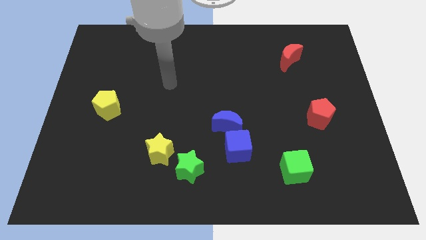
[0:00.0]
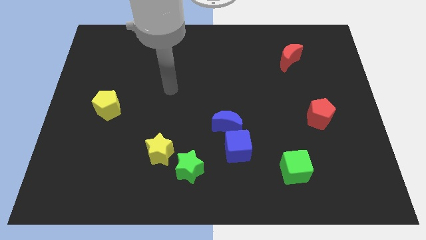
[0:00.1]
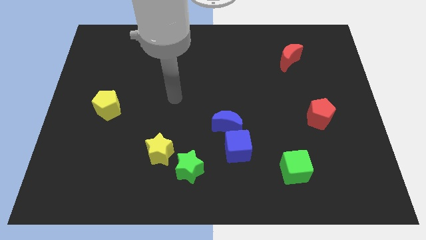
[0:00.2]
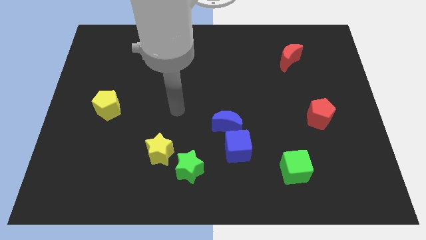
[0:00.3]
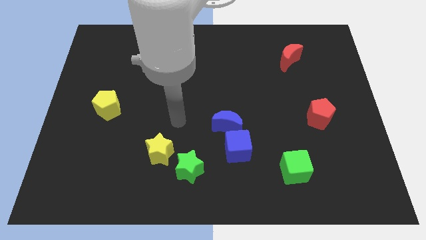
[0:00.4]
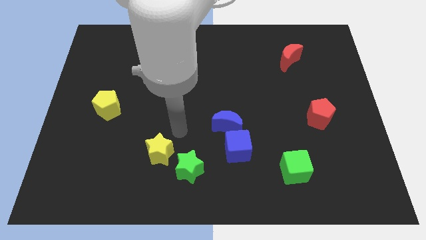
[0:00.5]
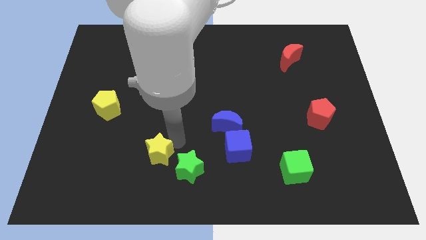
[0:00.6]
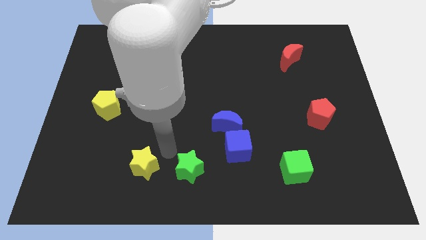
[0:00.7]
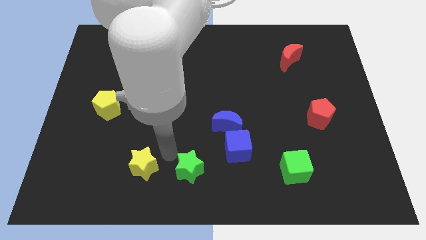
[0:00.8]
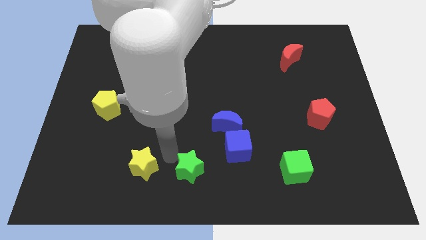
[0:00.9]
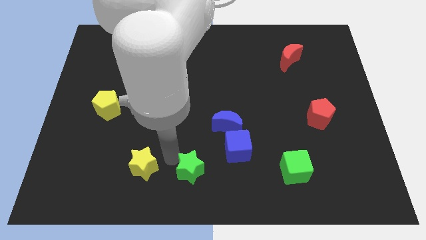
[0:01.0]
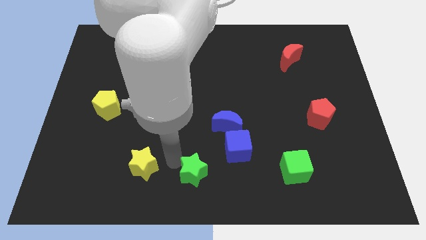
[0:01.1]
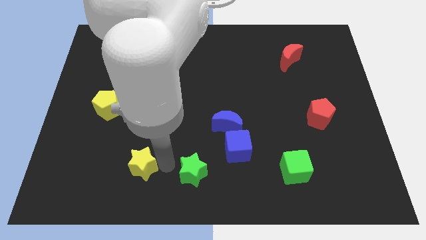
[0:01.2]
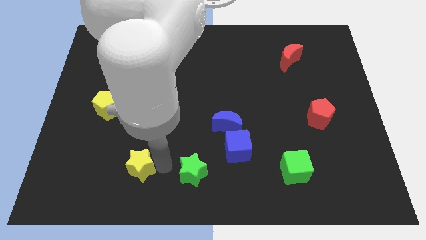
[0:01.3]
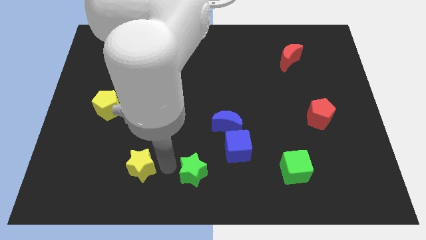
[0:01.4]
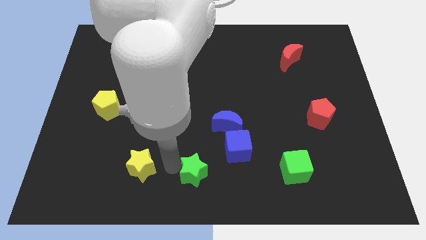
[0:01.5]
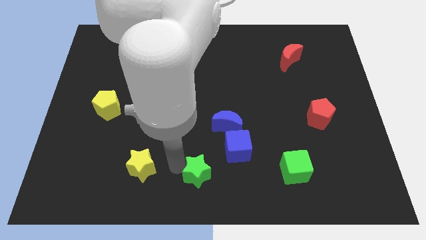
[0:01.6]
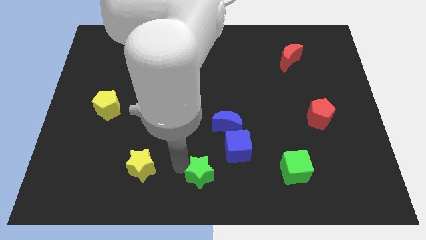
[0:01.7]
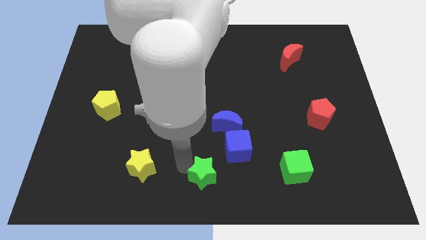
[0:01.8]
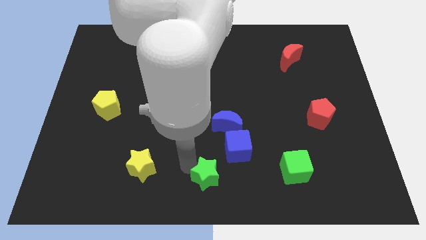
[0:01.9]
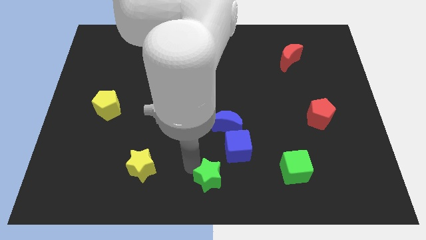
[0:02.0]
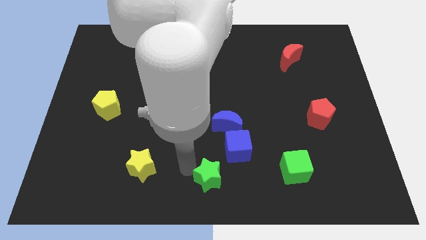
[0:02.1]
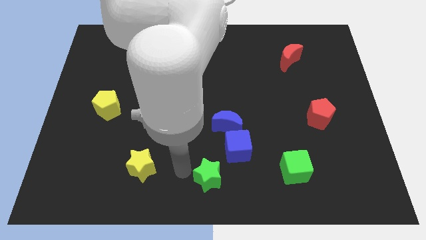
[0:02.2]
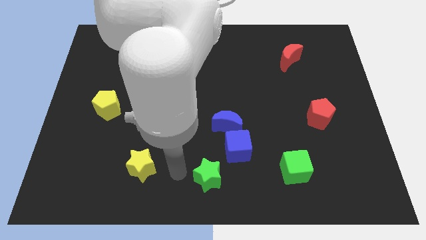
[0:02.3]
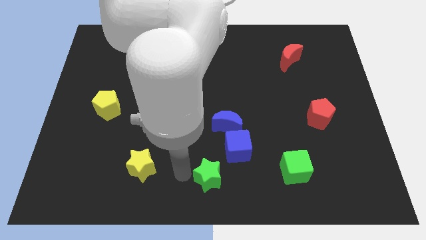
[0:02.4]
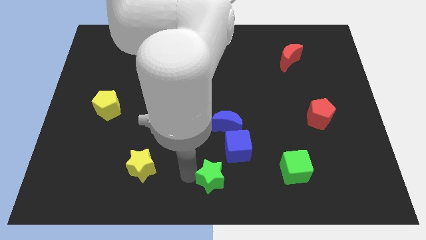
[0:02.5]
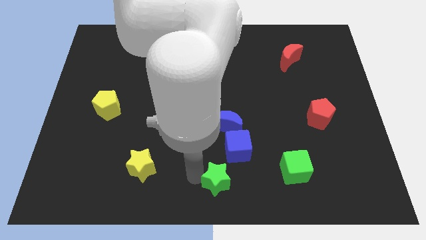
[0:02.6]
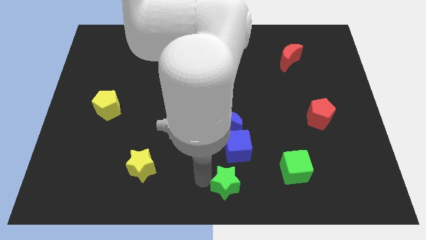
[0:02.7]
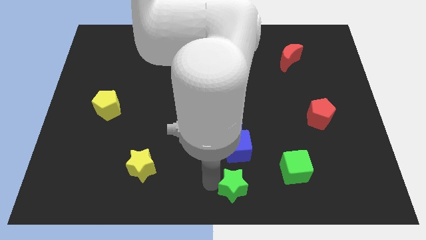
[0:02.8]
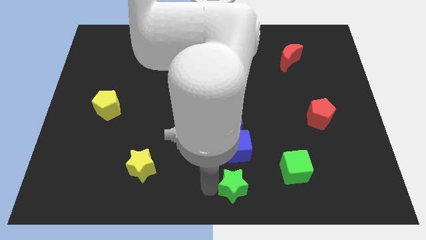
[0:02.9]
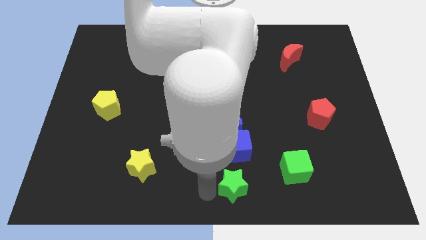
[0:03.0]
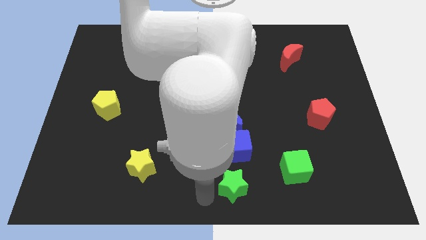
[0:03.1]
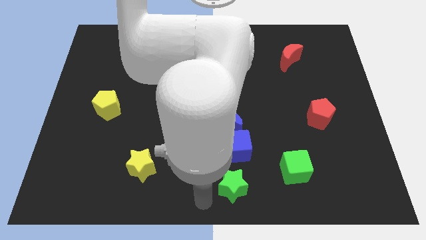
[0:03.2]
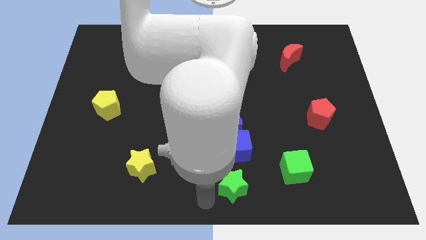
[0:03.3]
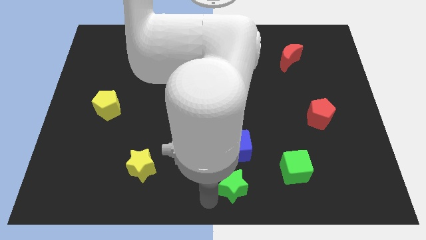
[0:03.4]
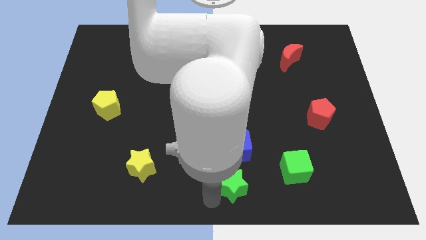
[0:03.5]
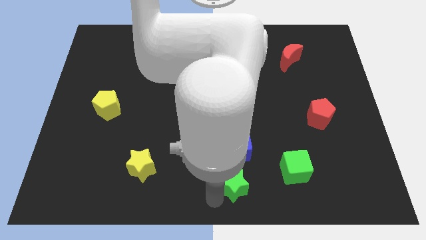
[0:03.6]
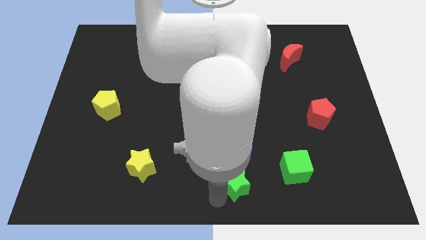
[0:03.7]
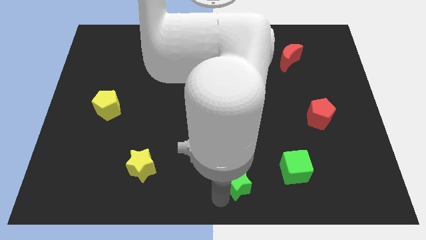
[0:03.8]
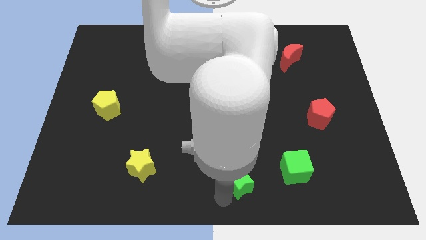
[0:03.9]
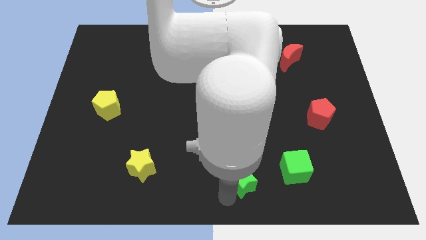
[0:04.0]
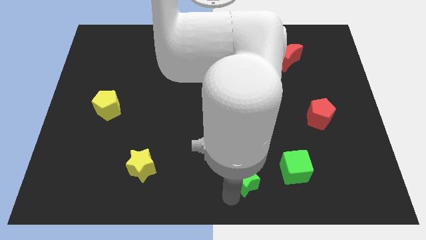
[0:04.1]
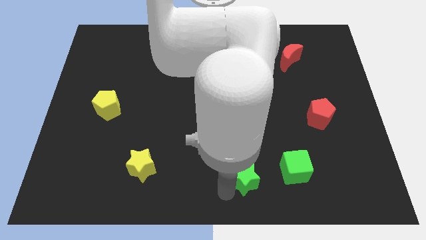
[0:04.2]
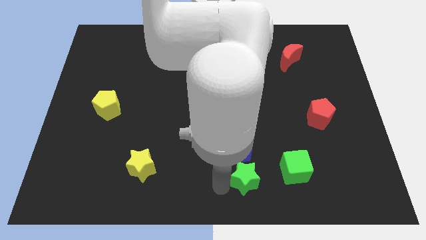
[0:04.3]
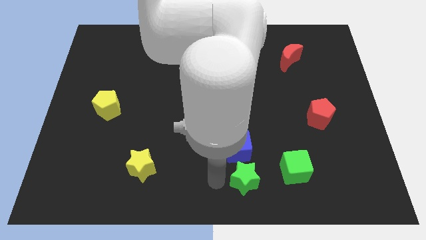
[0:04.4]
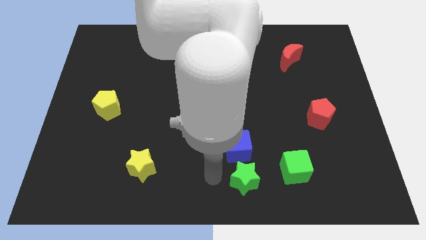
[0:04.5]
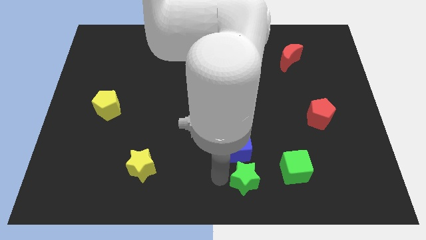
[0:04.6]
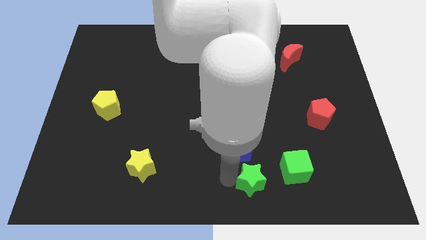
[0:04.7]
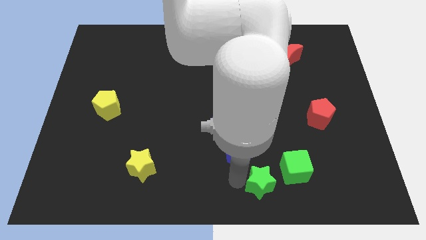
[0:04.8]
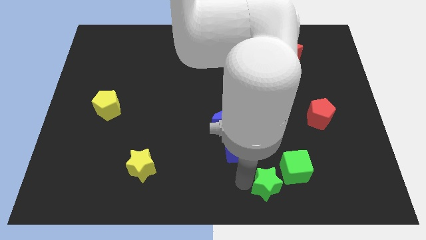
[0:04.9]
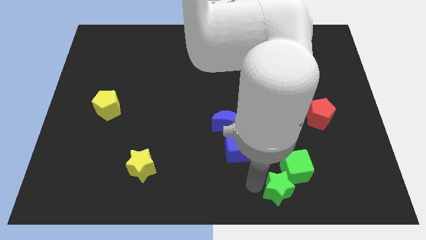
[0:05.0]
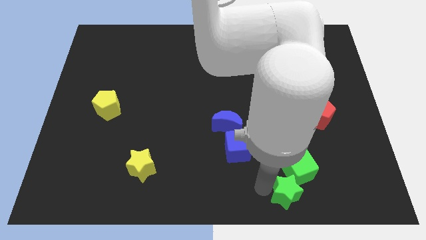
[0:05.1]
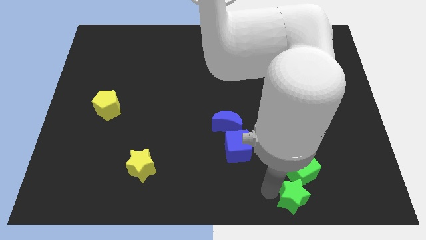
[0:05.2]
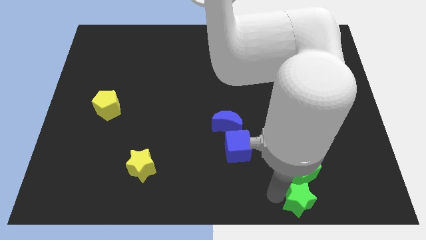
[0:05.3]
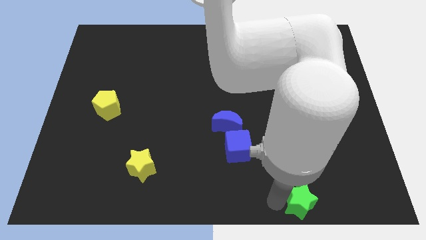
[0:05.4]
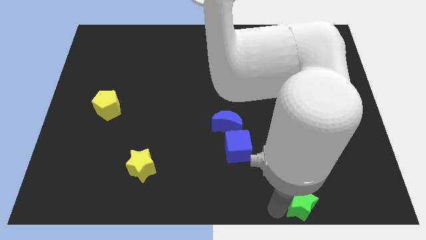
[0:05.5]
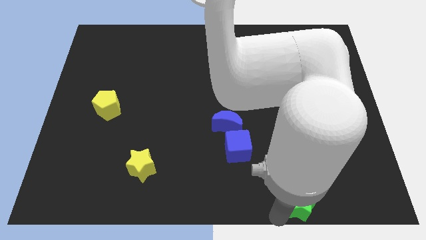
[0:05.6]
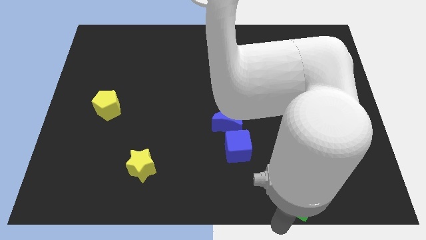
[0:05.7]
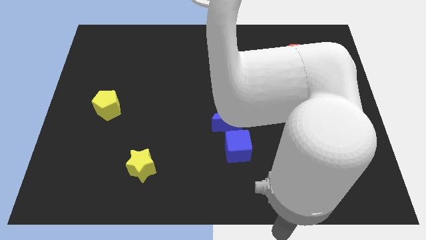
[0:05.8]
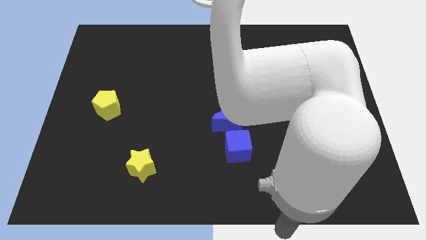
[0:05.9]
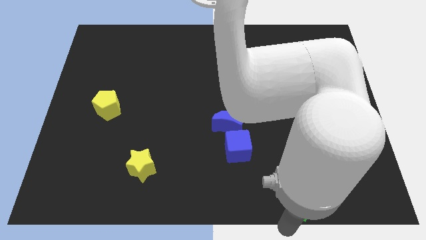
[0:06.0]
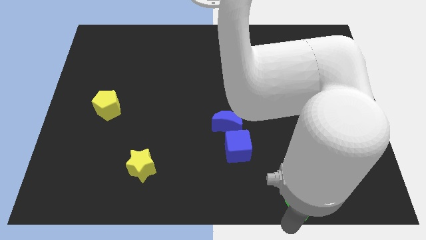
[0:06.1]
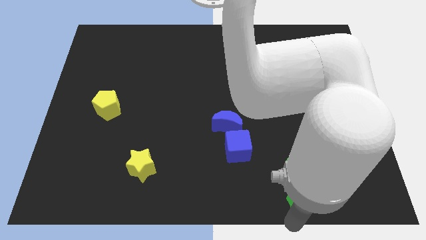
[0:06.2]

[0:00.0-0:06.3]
push the green star to the right

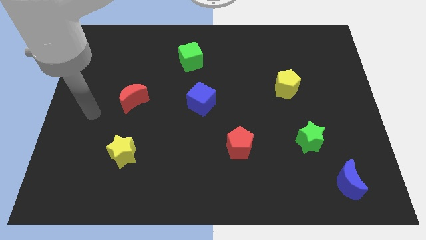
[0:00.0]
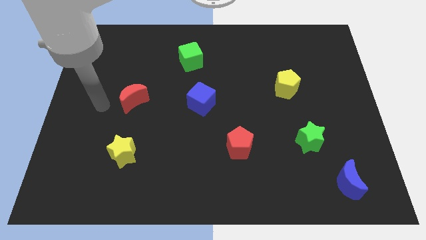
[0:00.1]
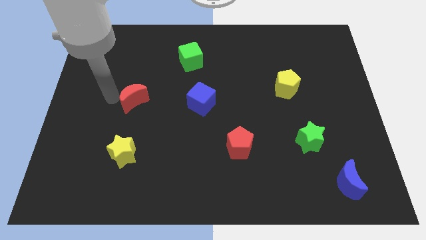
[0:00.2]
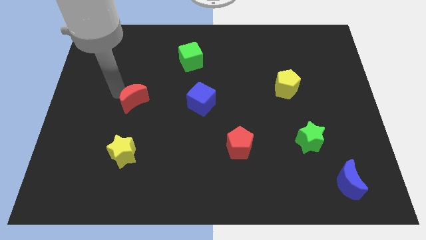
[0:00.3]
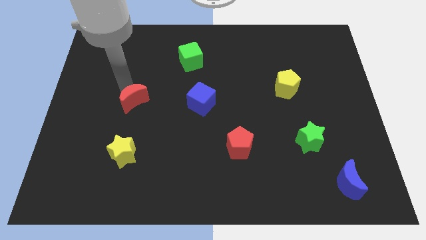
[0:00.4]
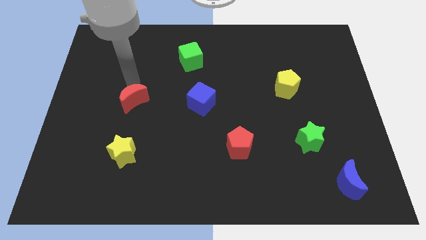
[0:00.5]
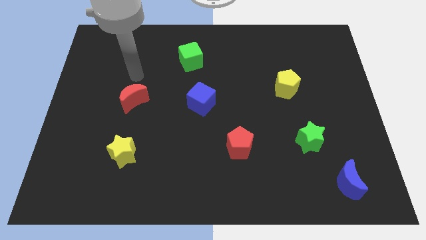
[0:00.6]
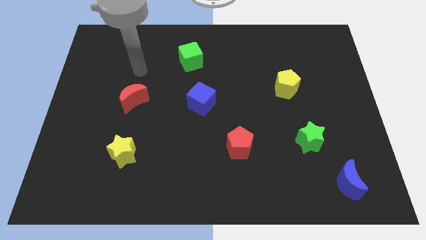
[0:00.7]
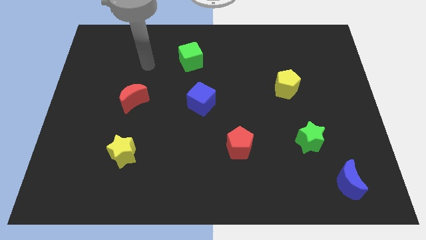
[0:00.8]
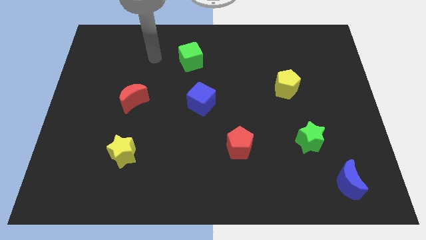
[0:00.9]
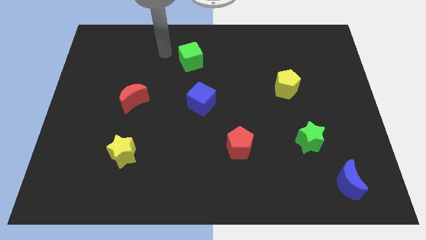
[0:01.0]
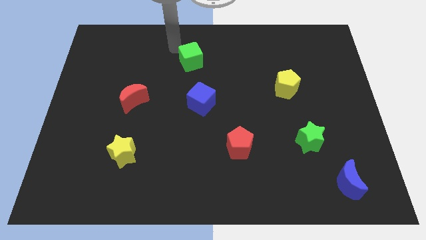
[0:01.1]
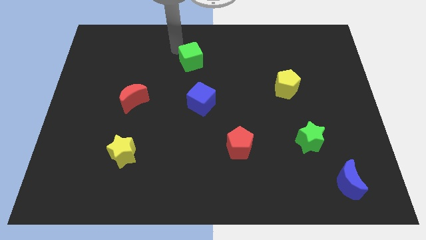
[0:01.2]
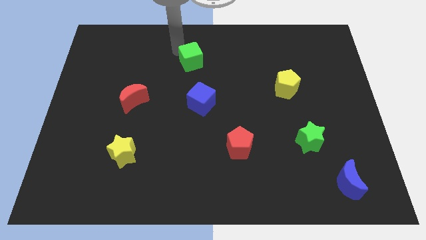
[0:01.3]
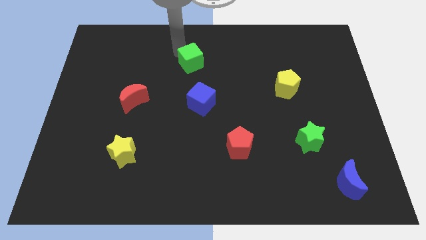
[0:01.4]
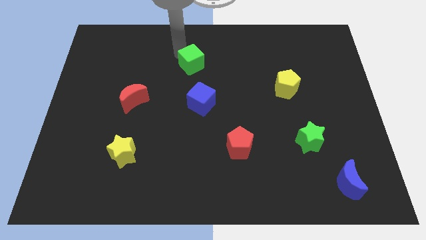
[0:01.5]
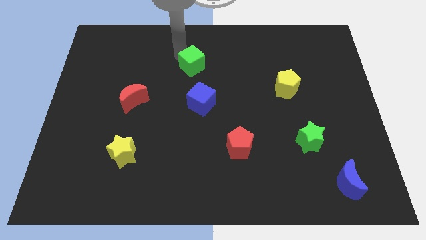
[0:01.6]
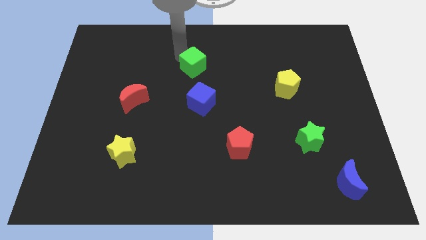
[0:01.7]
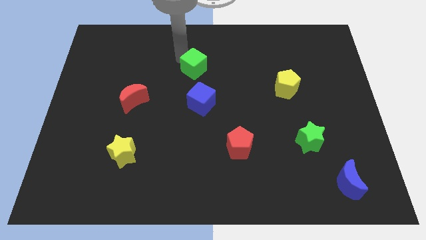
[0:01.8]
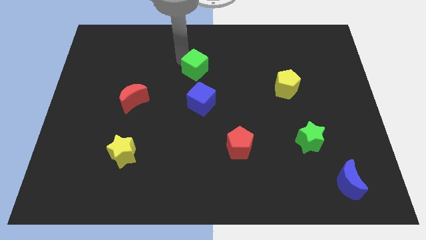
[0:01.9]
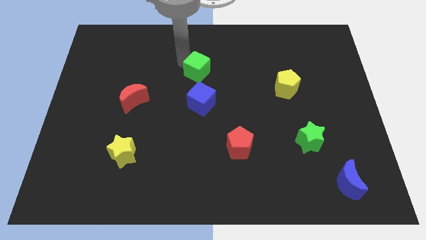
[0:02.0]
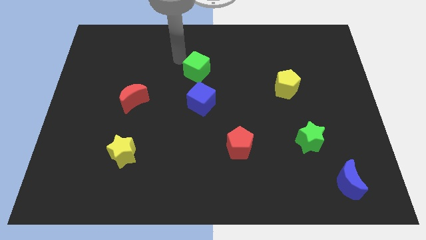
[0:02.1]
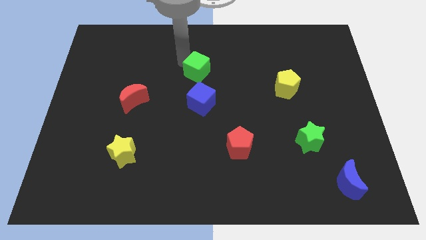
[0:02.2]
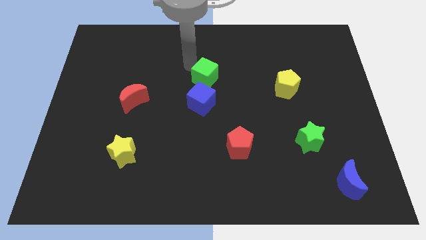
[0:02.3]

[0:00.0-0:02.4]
slide the green cube a little bit down and then to the right
